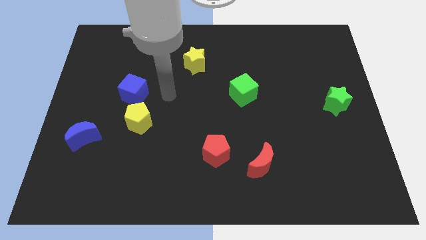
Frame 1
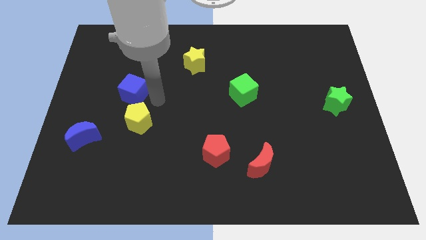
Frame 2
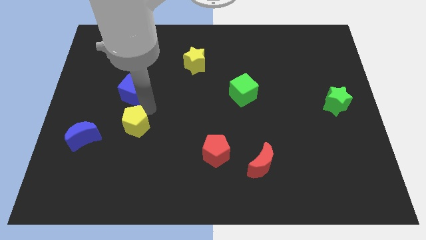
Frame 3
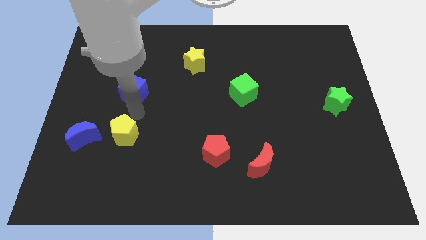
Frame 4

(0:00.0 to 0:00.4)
move the blue cube away from the yellow pentagon

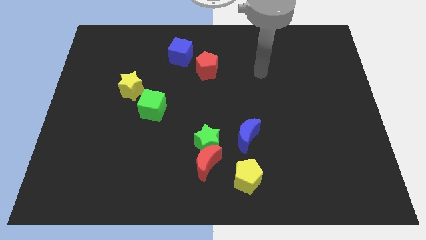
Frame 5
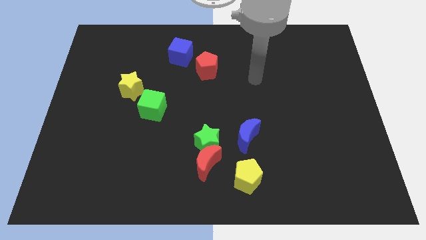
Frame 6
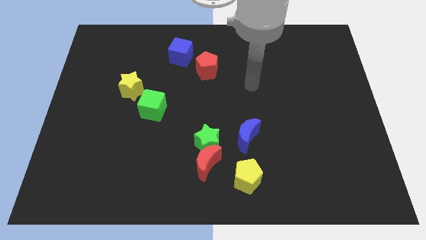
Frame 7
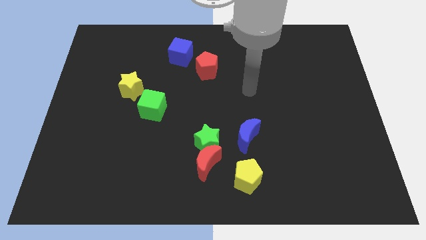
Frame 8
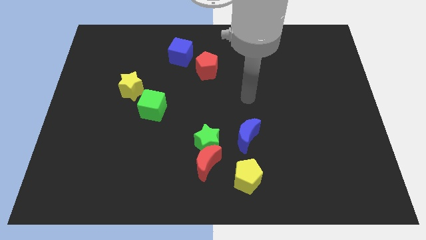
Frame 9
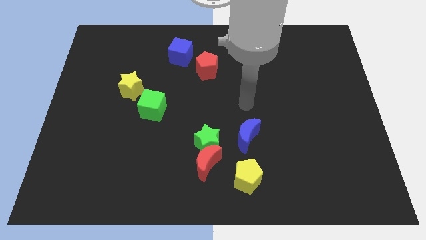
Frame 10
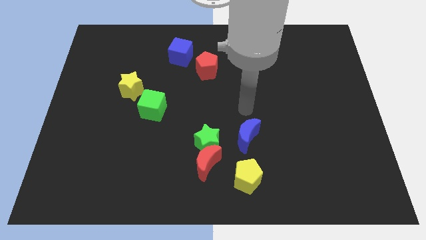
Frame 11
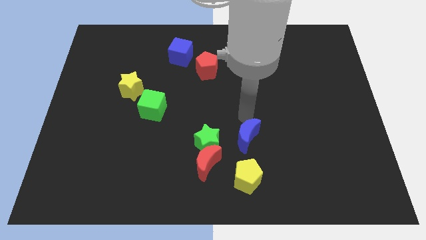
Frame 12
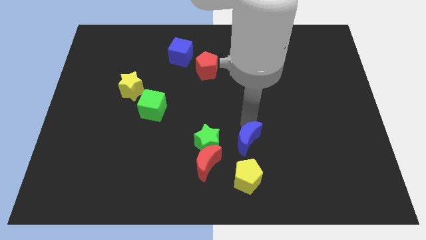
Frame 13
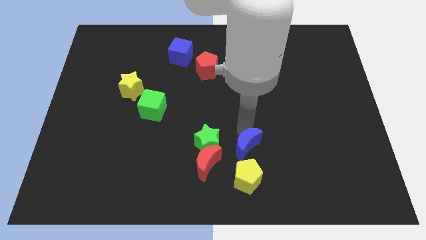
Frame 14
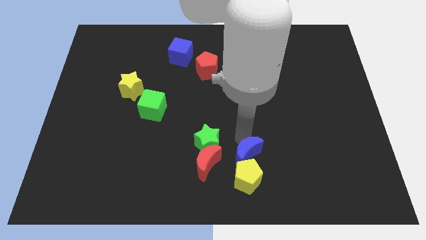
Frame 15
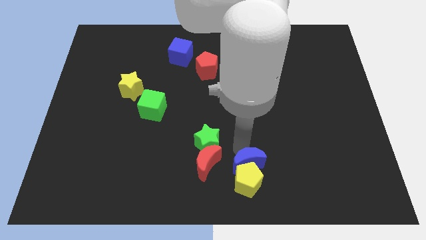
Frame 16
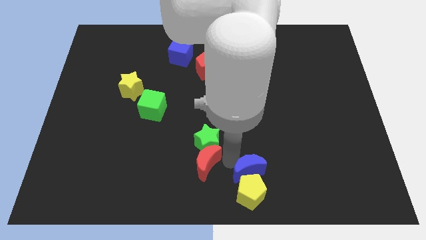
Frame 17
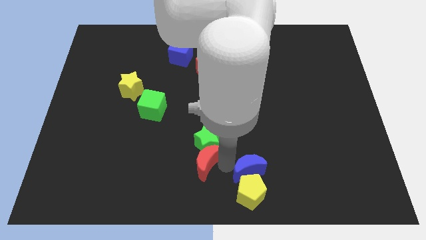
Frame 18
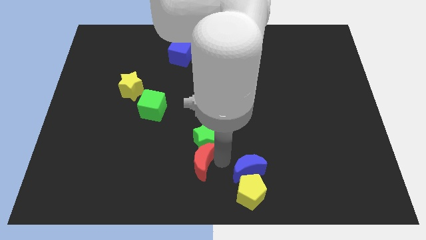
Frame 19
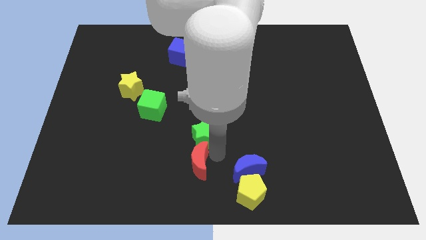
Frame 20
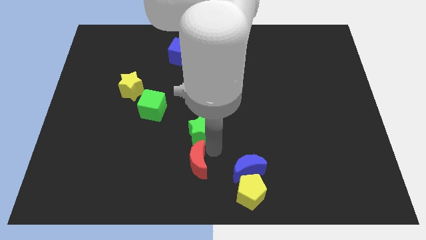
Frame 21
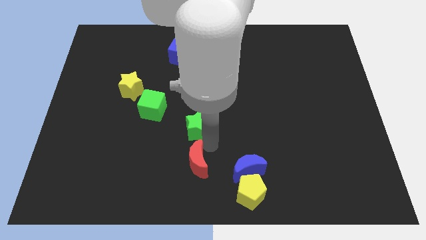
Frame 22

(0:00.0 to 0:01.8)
move the green star away from the red moon and blue moon

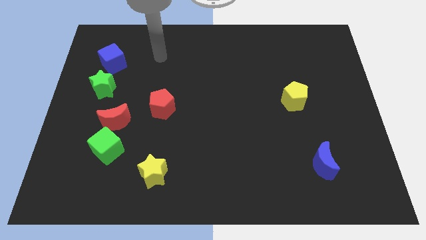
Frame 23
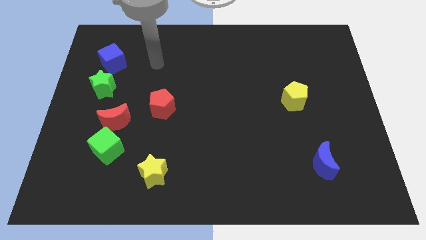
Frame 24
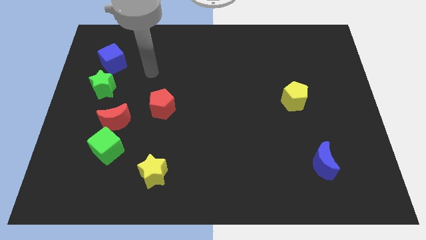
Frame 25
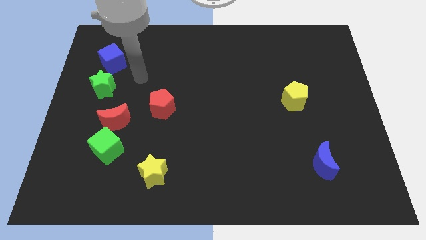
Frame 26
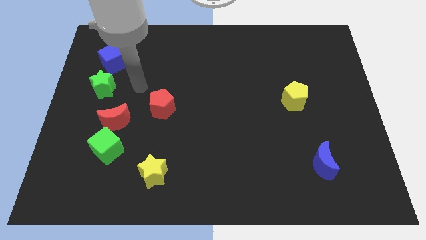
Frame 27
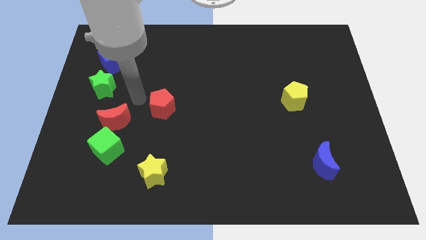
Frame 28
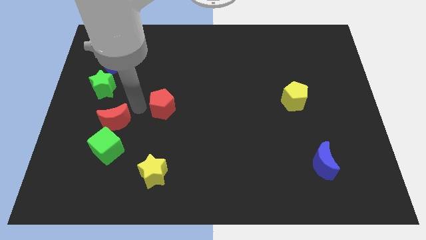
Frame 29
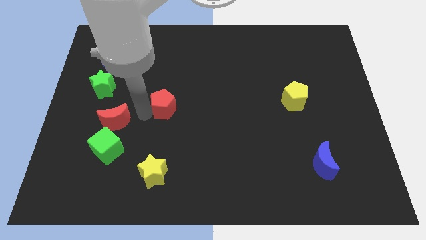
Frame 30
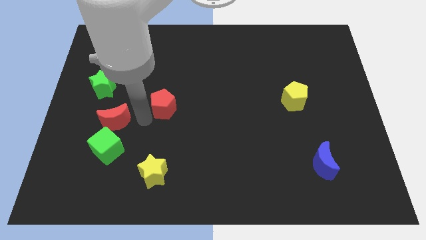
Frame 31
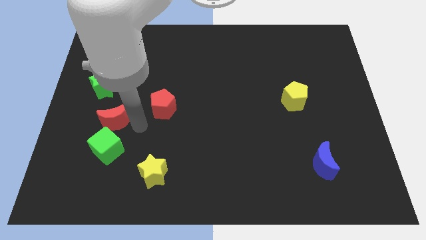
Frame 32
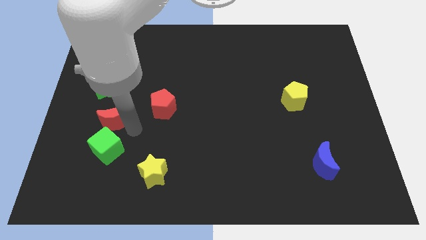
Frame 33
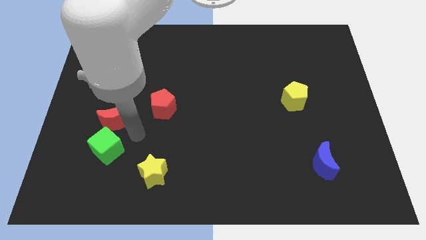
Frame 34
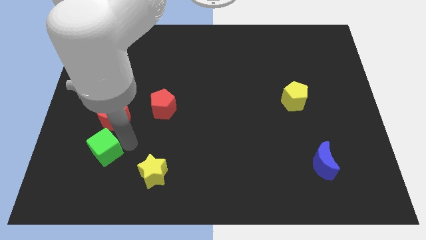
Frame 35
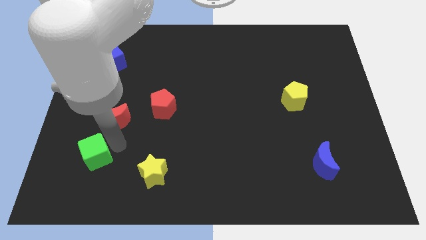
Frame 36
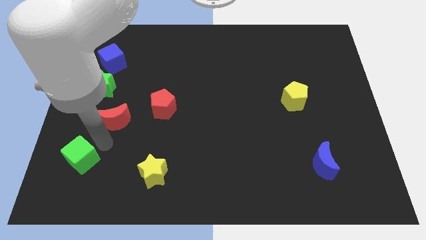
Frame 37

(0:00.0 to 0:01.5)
move the red moon away from the green cube

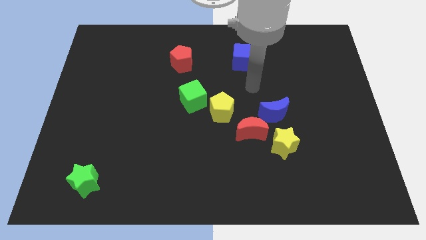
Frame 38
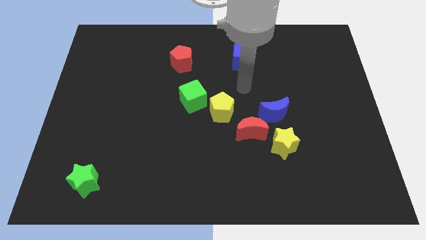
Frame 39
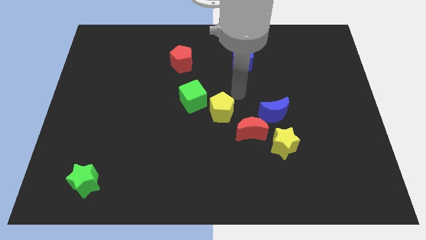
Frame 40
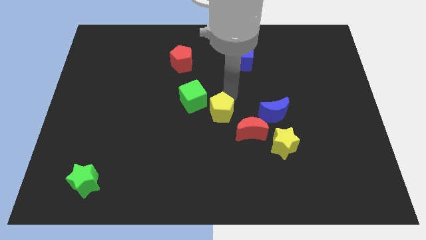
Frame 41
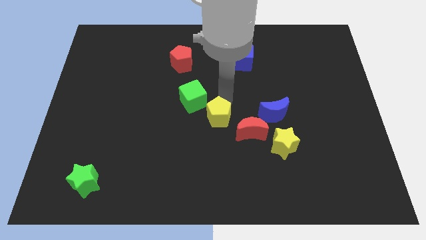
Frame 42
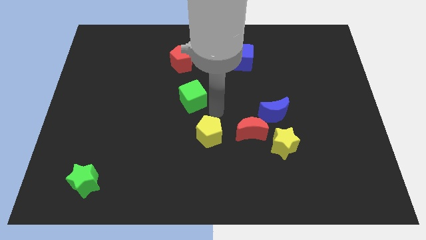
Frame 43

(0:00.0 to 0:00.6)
separate the green cube from the yellow pentagon

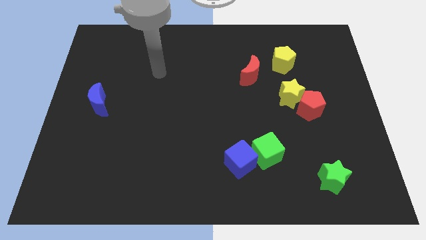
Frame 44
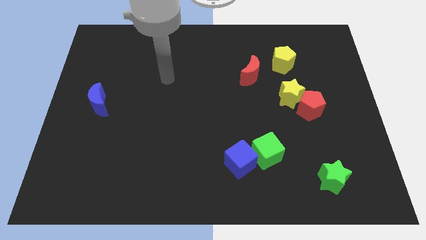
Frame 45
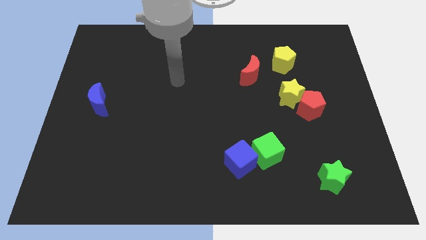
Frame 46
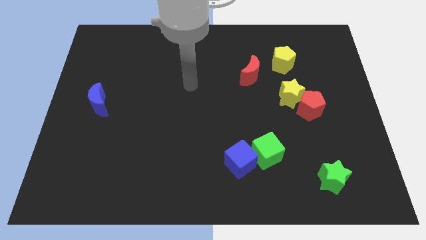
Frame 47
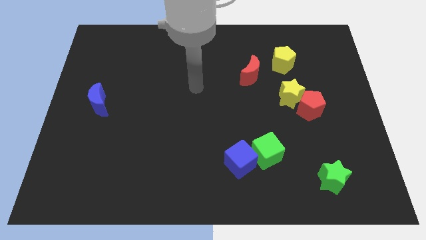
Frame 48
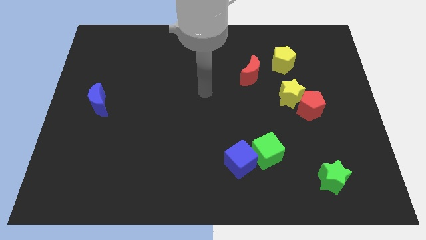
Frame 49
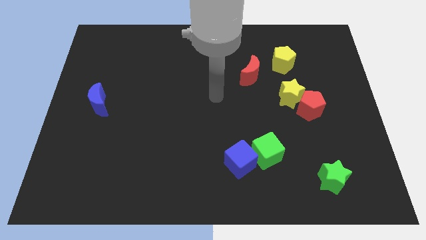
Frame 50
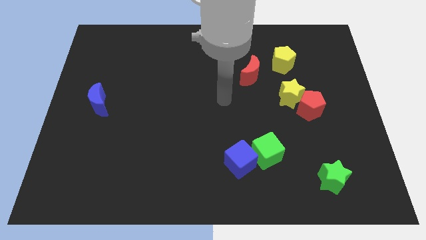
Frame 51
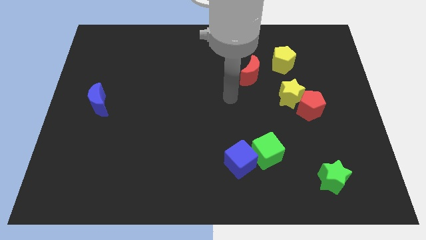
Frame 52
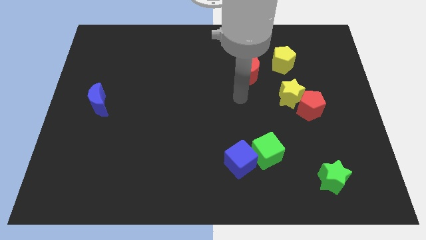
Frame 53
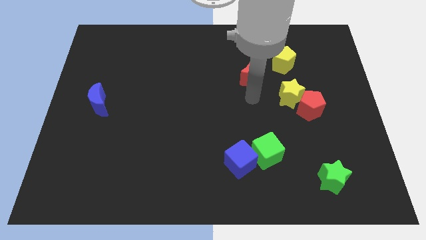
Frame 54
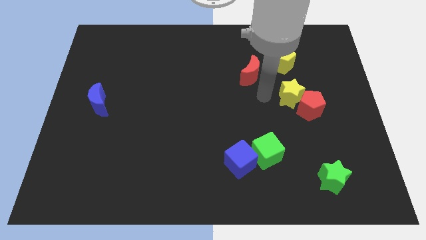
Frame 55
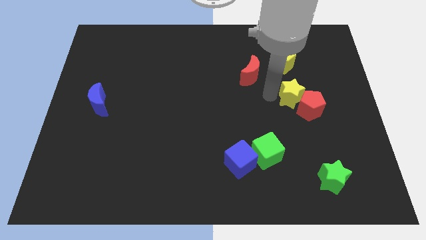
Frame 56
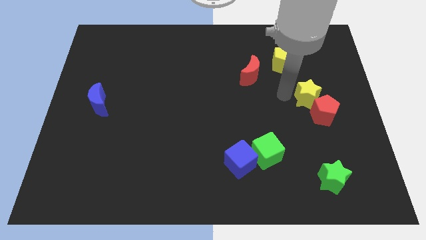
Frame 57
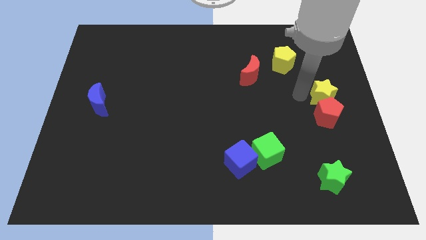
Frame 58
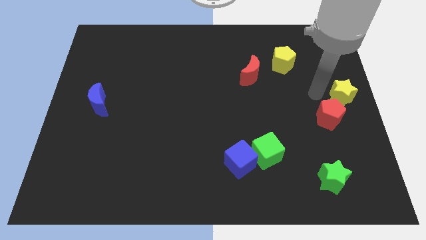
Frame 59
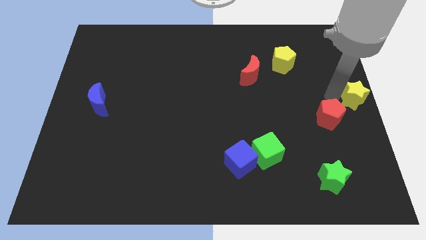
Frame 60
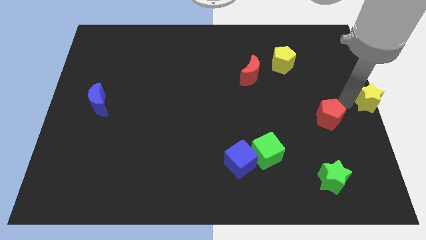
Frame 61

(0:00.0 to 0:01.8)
pull the red pentagon apart from the yellow star

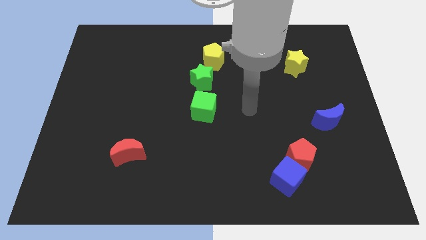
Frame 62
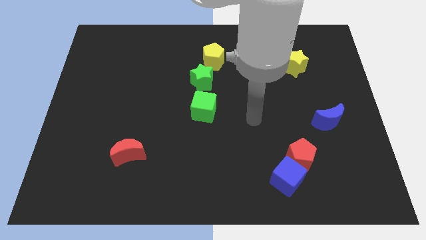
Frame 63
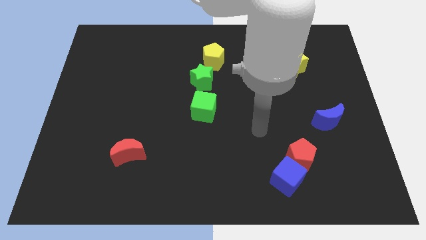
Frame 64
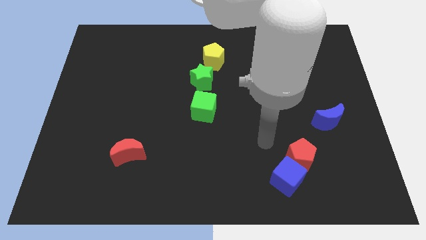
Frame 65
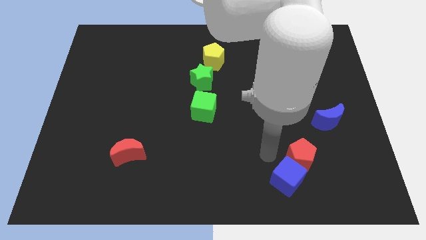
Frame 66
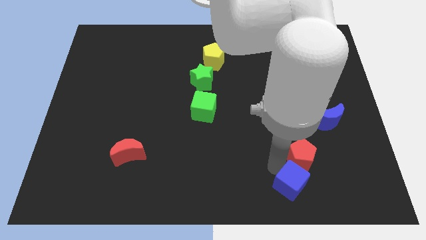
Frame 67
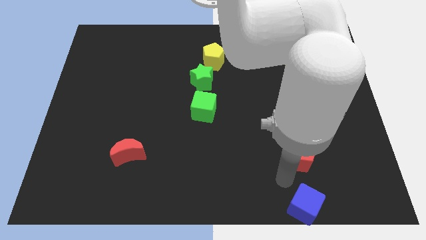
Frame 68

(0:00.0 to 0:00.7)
move the red pentagon away from the blue cube

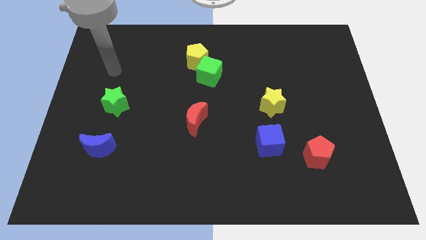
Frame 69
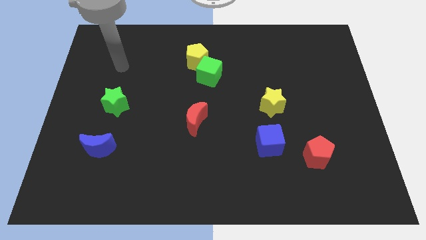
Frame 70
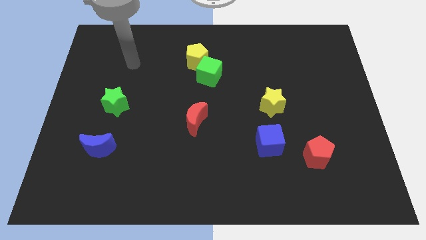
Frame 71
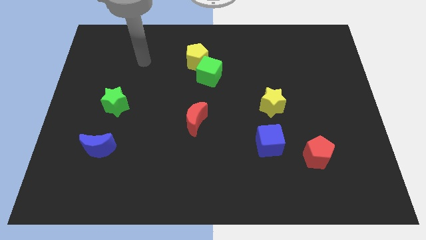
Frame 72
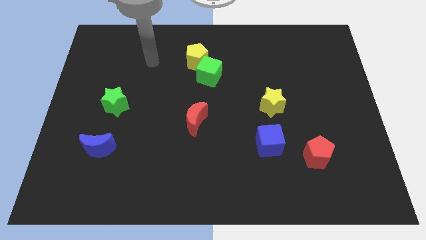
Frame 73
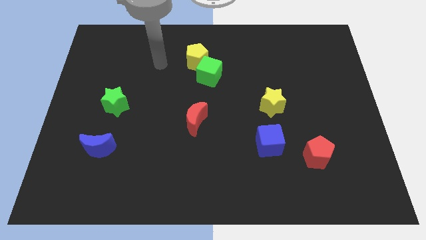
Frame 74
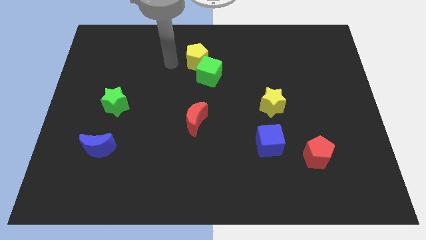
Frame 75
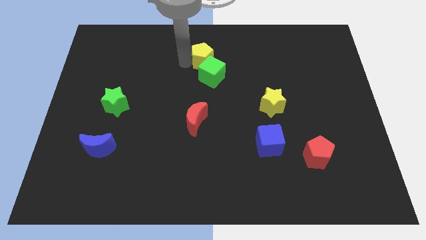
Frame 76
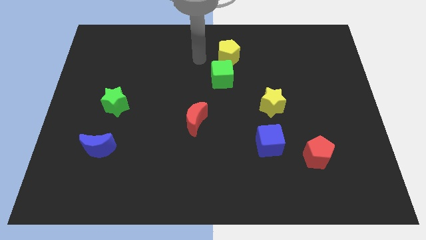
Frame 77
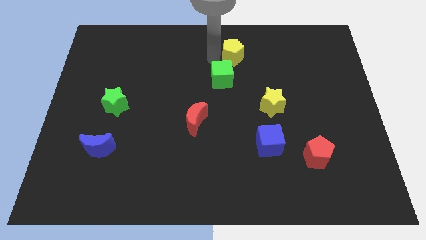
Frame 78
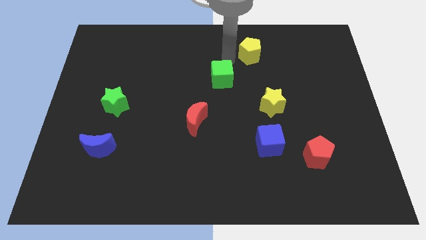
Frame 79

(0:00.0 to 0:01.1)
pull the green cube apart from the yellow pentagon

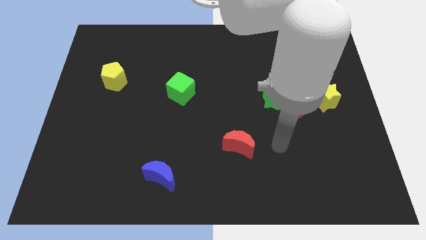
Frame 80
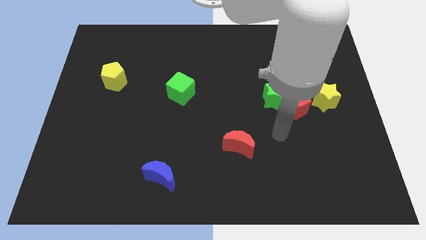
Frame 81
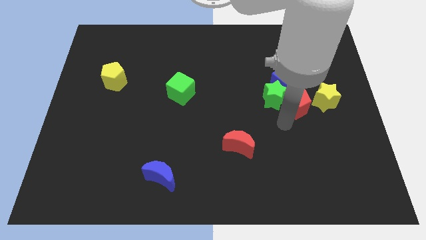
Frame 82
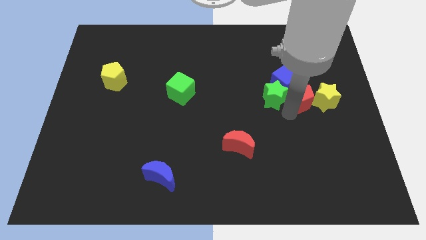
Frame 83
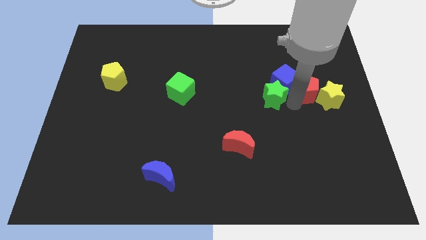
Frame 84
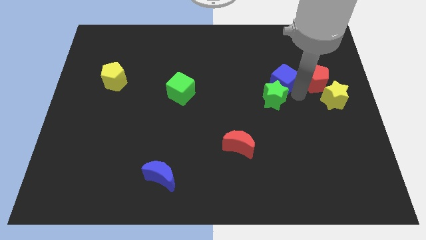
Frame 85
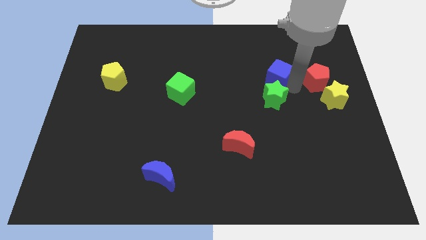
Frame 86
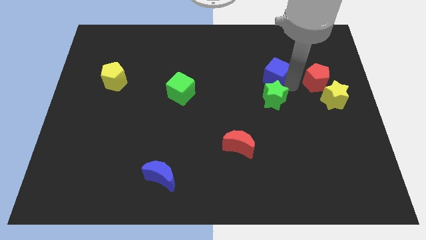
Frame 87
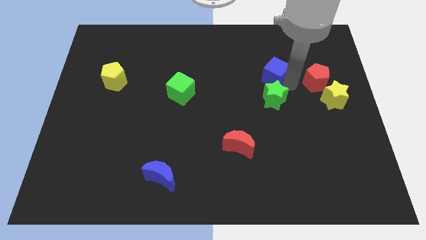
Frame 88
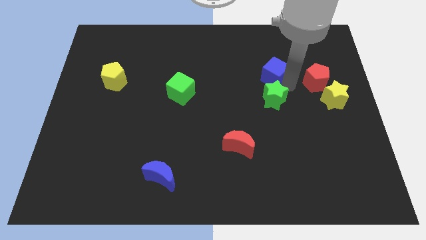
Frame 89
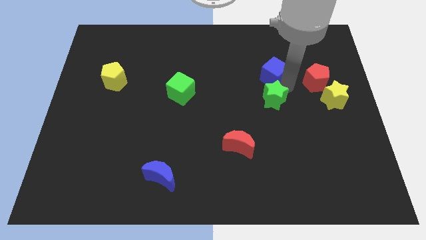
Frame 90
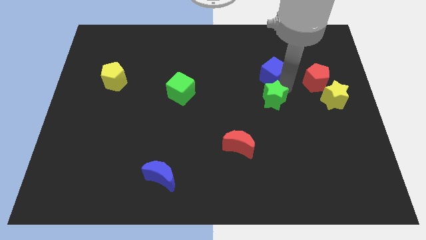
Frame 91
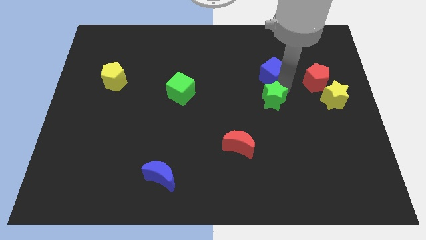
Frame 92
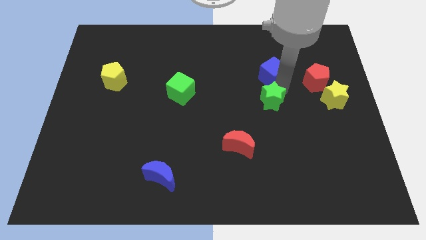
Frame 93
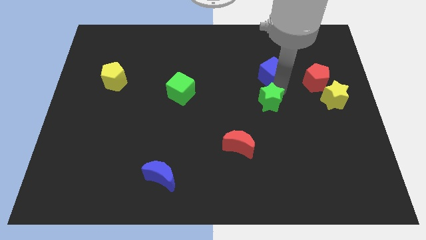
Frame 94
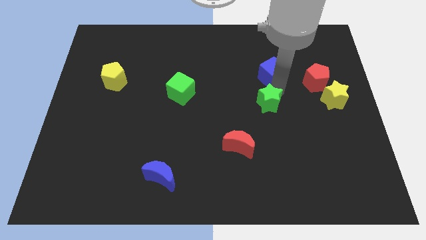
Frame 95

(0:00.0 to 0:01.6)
move the green star away from the red pentagon and blue cube

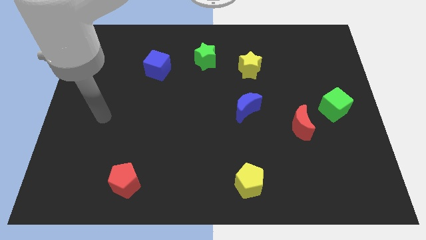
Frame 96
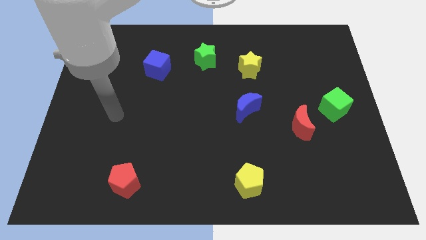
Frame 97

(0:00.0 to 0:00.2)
separate the red moon from the green cube
